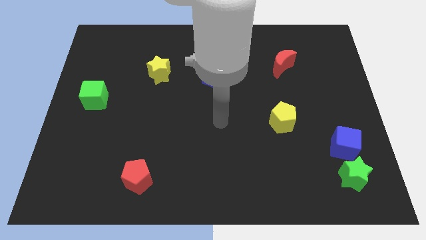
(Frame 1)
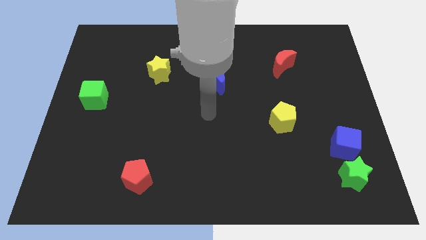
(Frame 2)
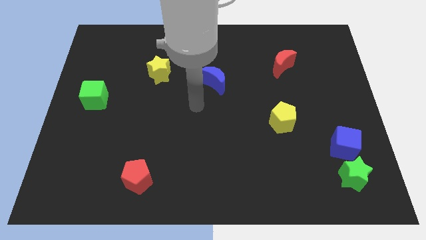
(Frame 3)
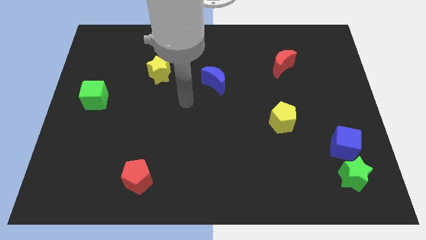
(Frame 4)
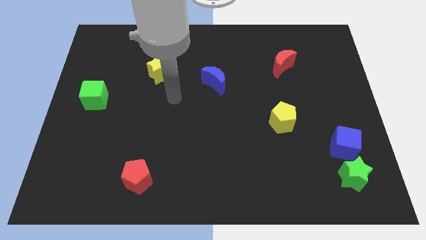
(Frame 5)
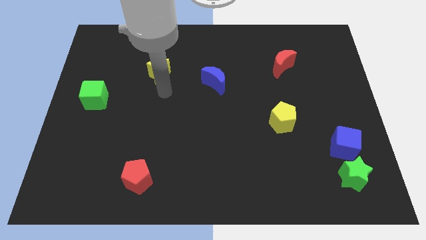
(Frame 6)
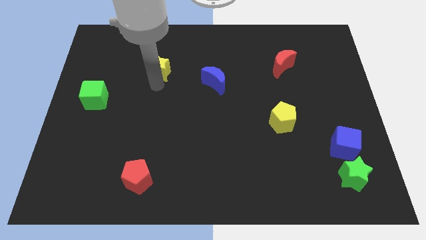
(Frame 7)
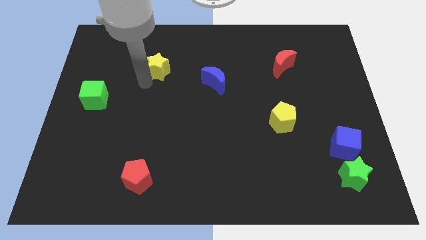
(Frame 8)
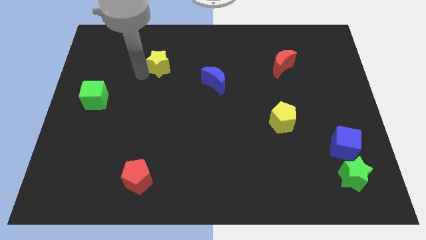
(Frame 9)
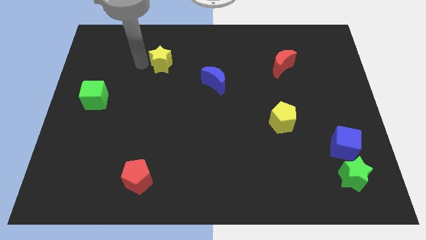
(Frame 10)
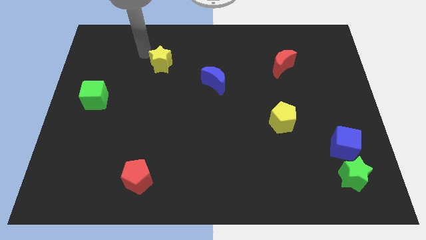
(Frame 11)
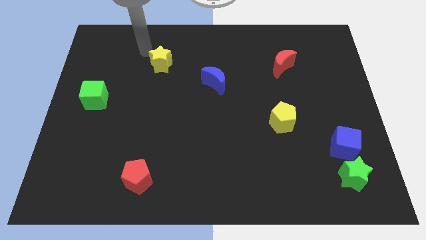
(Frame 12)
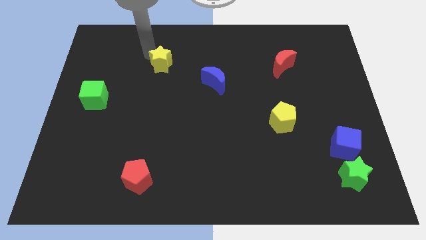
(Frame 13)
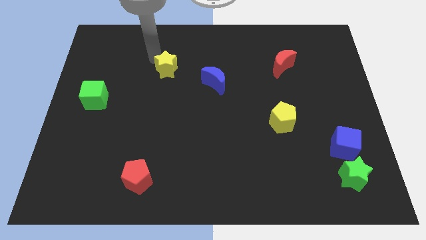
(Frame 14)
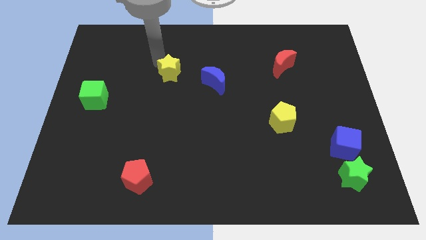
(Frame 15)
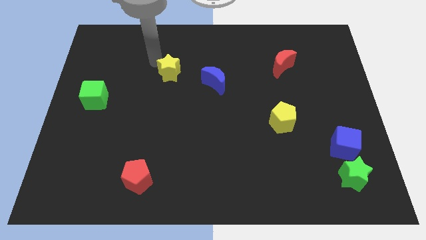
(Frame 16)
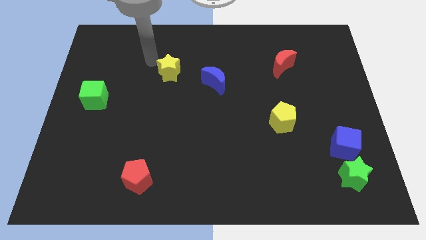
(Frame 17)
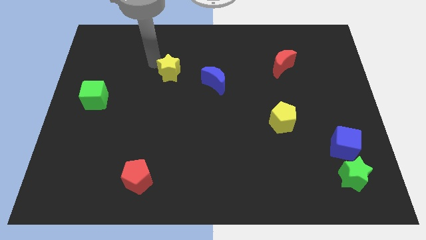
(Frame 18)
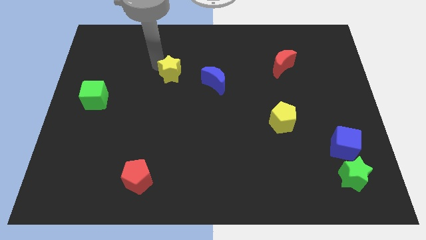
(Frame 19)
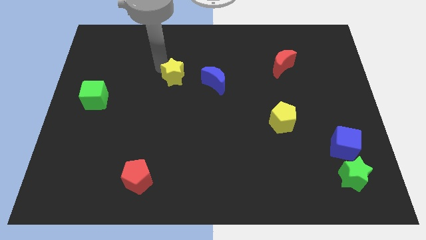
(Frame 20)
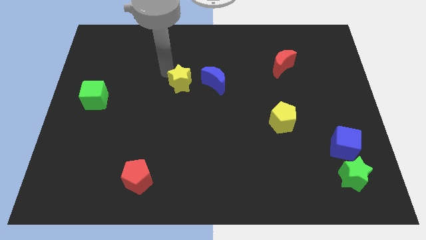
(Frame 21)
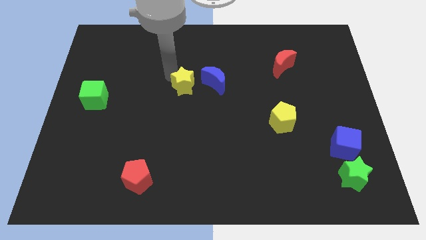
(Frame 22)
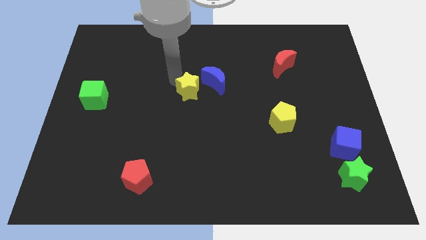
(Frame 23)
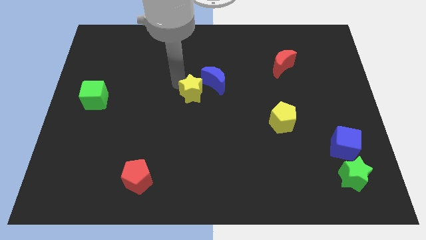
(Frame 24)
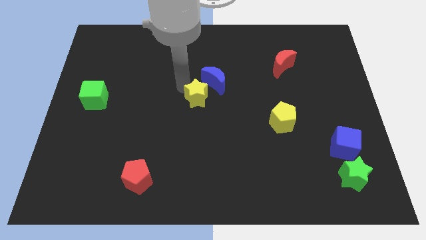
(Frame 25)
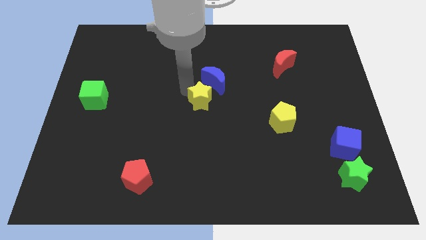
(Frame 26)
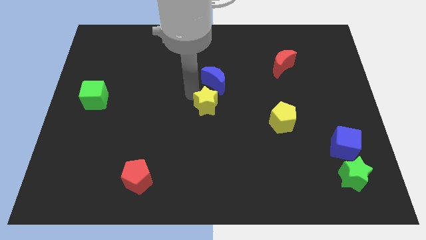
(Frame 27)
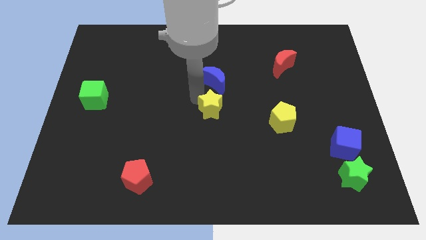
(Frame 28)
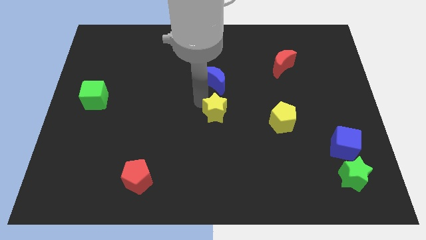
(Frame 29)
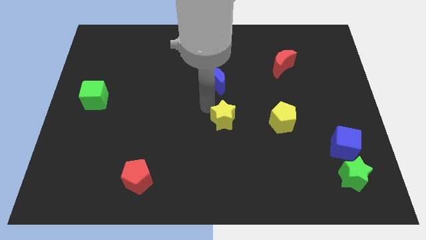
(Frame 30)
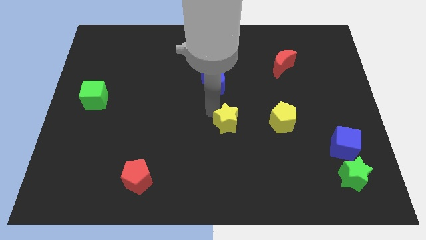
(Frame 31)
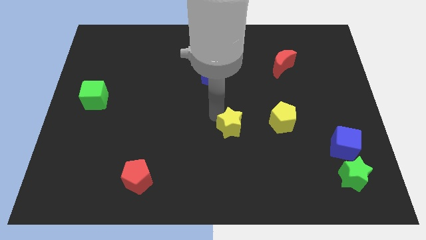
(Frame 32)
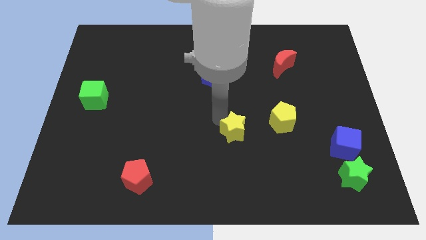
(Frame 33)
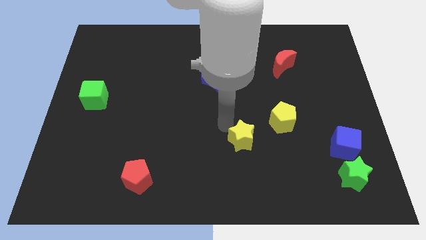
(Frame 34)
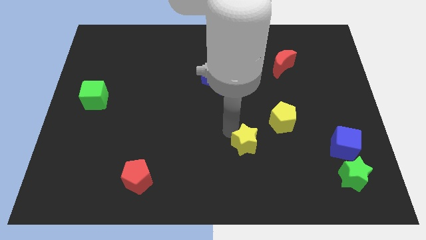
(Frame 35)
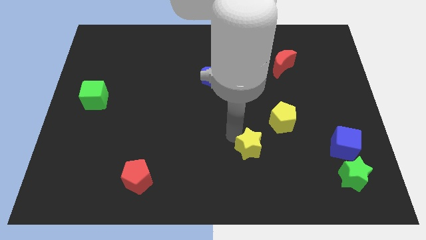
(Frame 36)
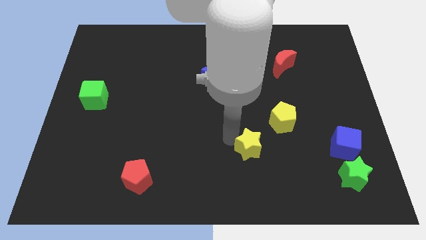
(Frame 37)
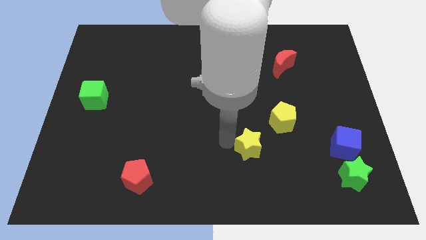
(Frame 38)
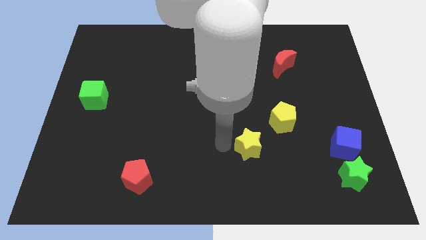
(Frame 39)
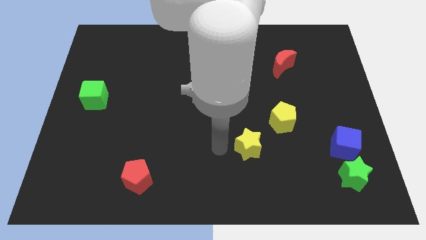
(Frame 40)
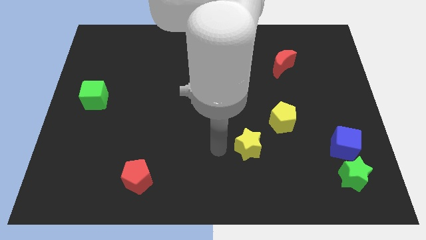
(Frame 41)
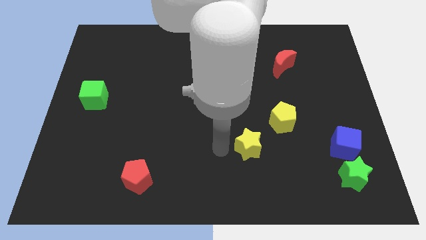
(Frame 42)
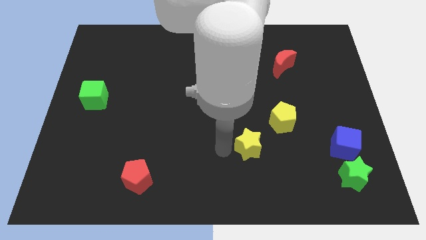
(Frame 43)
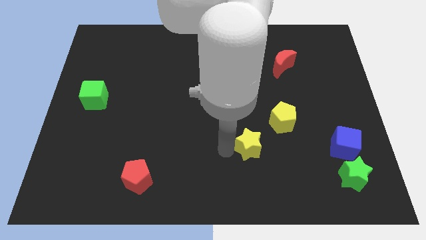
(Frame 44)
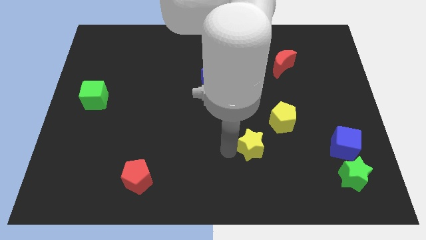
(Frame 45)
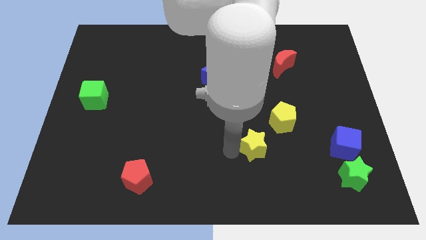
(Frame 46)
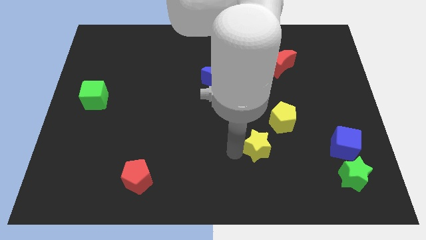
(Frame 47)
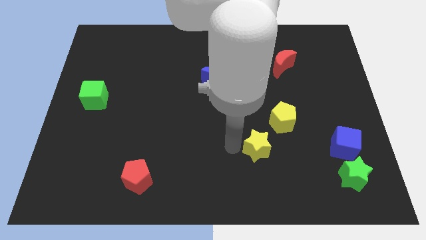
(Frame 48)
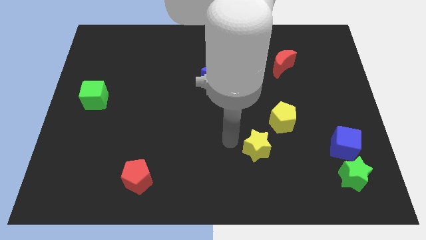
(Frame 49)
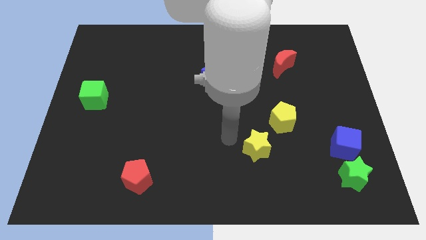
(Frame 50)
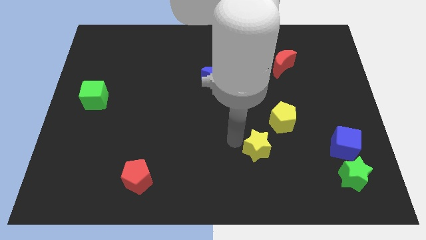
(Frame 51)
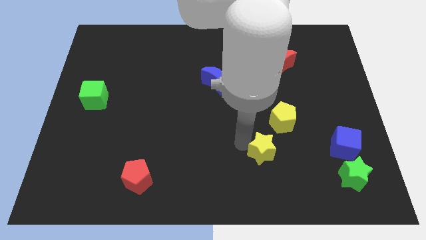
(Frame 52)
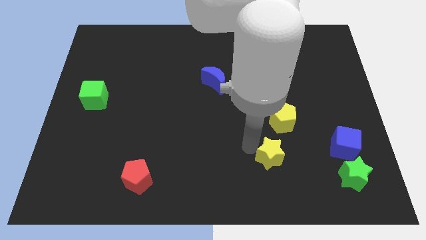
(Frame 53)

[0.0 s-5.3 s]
slide the yellow star to the bottom side of the yellow pentagon

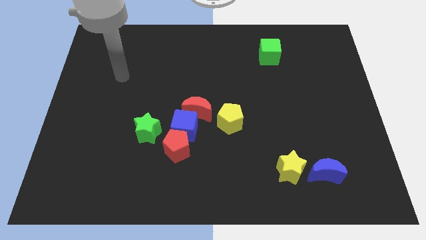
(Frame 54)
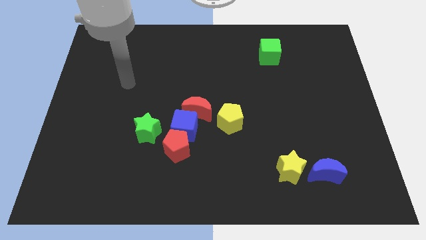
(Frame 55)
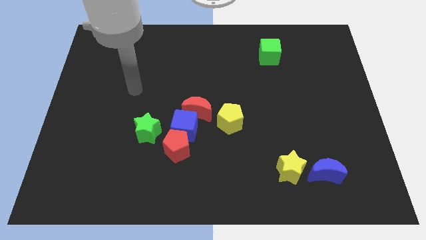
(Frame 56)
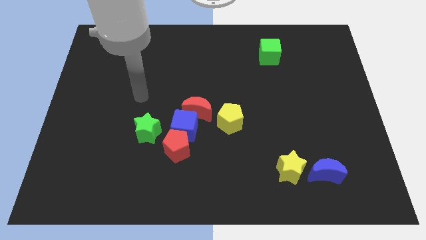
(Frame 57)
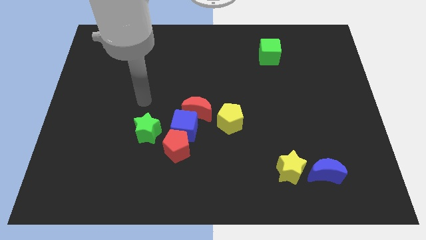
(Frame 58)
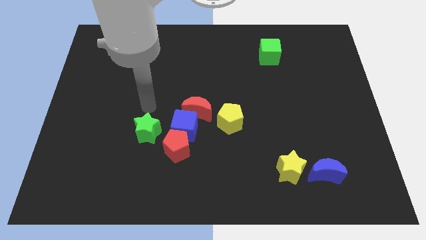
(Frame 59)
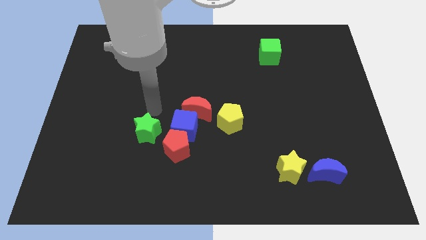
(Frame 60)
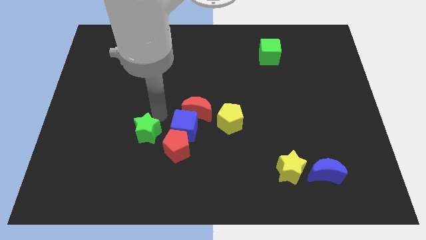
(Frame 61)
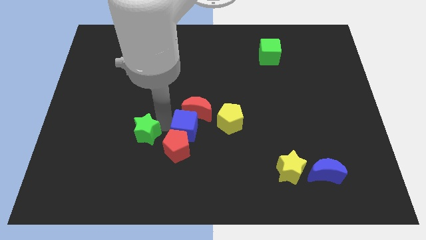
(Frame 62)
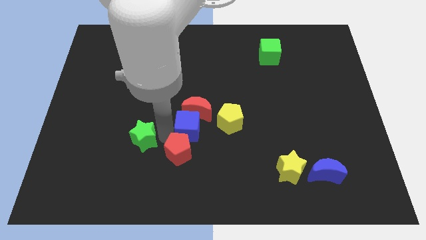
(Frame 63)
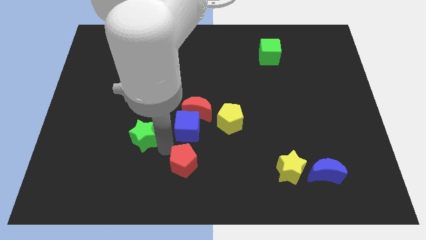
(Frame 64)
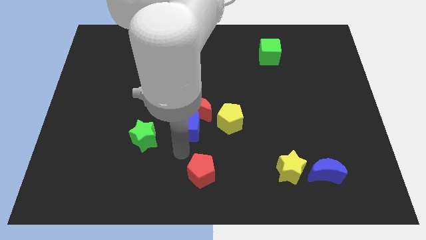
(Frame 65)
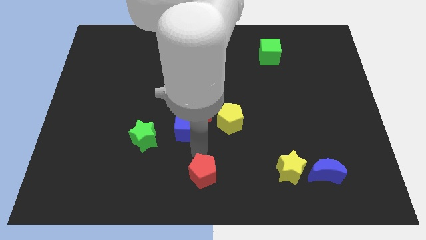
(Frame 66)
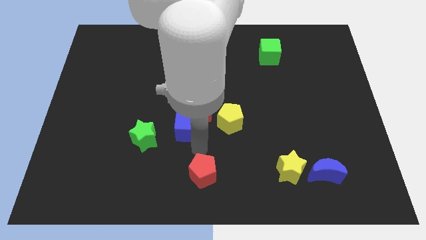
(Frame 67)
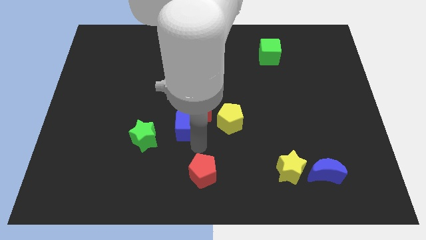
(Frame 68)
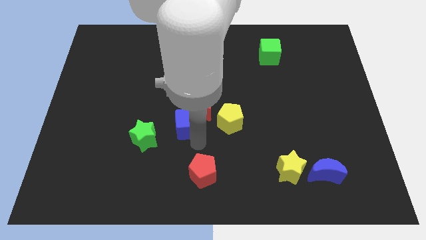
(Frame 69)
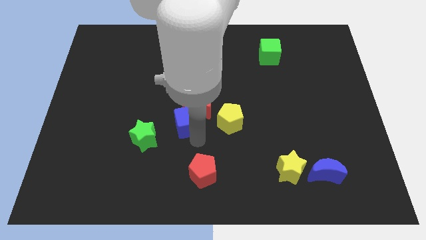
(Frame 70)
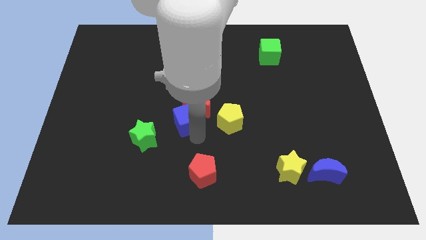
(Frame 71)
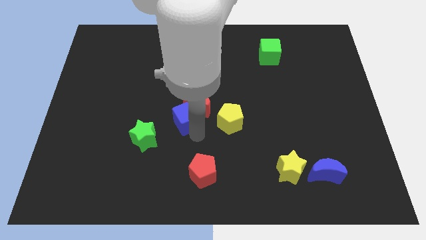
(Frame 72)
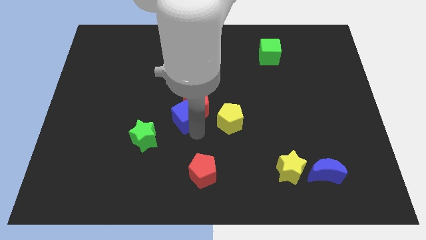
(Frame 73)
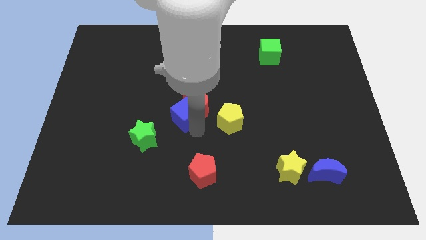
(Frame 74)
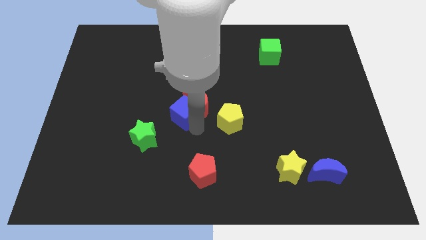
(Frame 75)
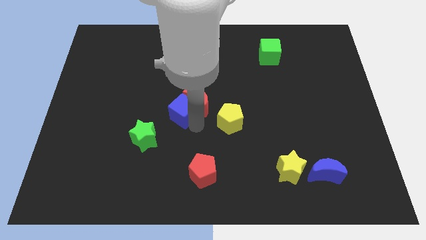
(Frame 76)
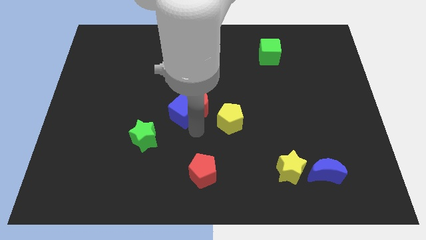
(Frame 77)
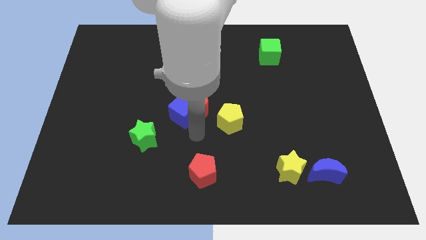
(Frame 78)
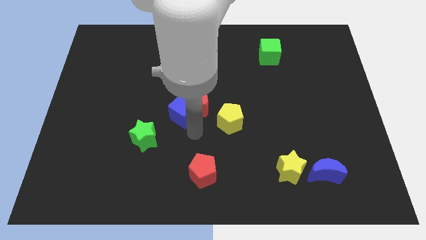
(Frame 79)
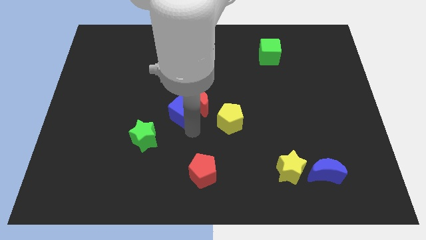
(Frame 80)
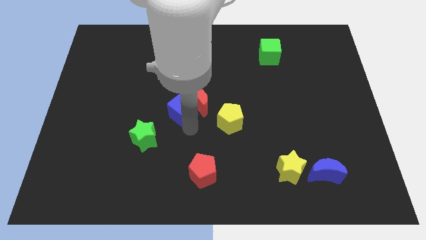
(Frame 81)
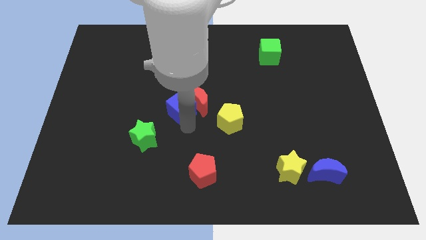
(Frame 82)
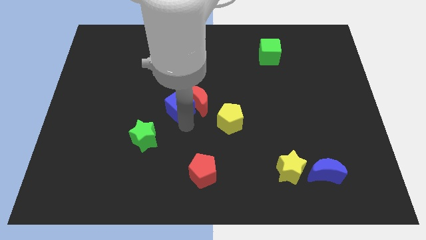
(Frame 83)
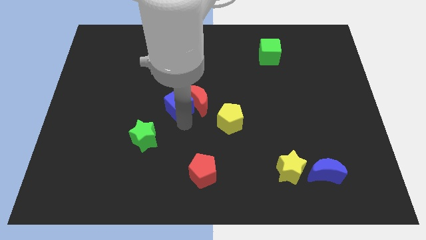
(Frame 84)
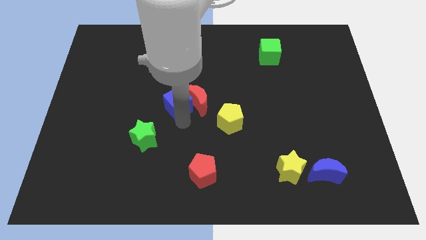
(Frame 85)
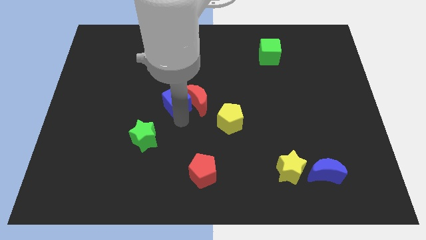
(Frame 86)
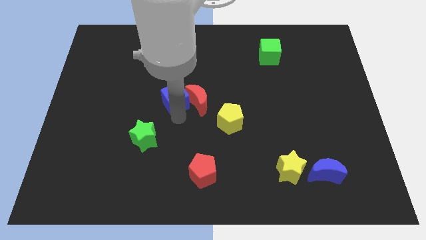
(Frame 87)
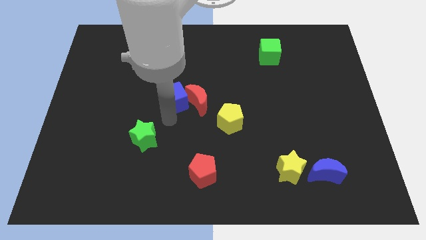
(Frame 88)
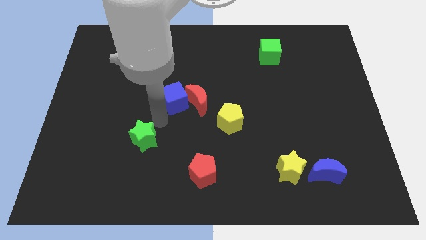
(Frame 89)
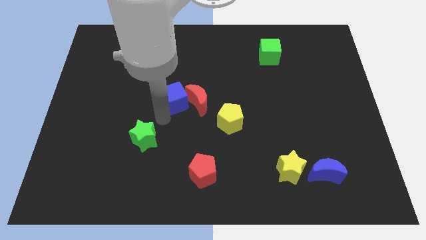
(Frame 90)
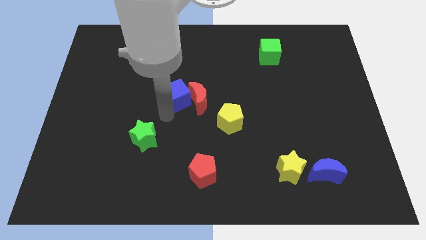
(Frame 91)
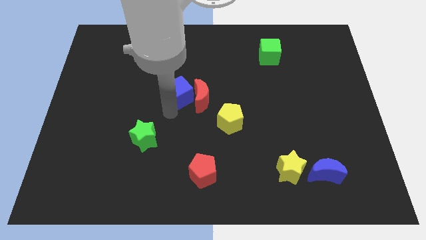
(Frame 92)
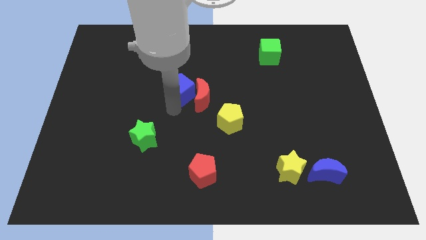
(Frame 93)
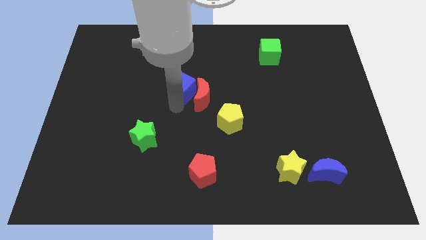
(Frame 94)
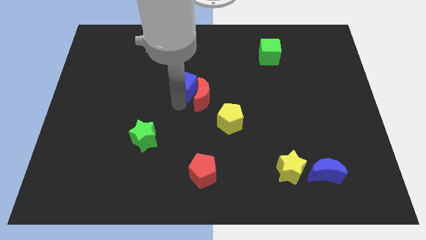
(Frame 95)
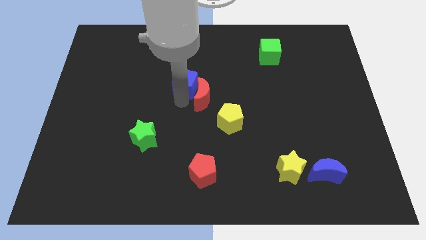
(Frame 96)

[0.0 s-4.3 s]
slide the blue cube to the top side of the red moon
